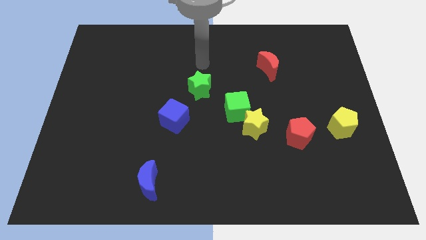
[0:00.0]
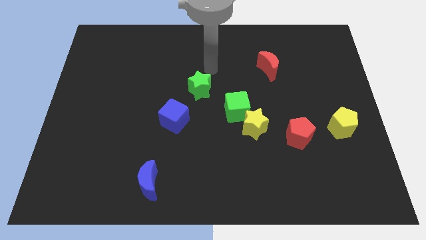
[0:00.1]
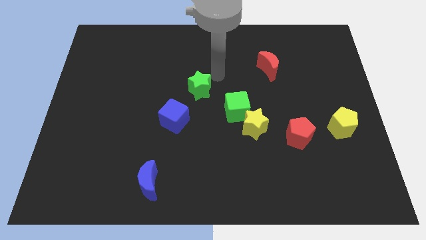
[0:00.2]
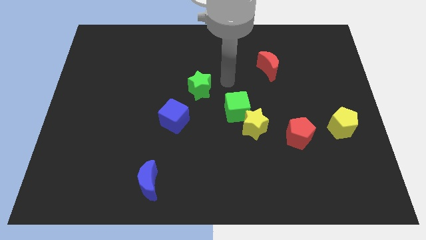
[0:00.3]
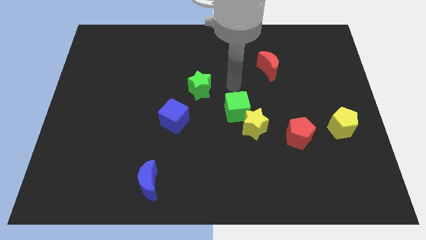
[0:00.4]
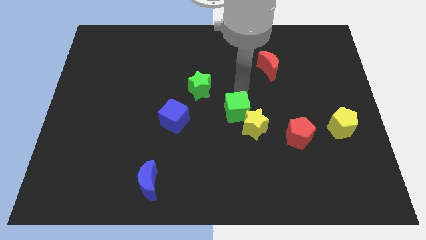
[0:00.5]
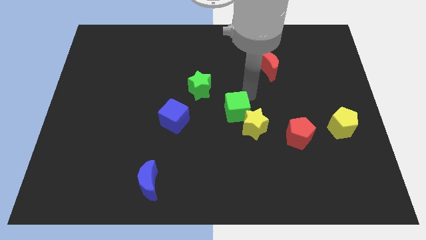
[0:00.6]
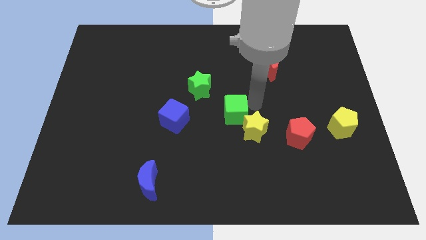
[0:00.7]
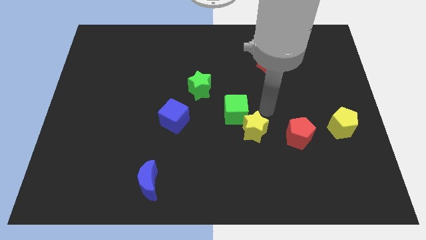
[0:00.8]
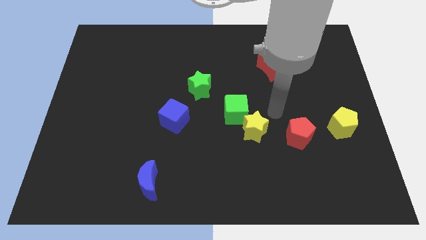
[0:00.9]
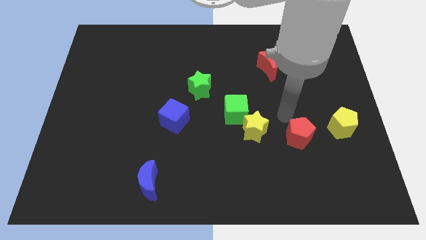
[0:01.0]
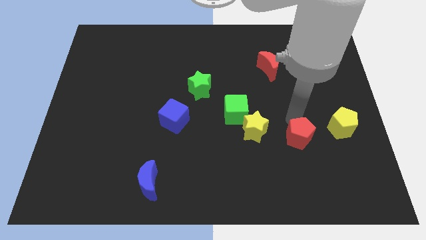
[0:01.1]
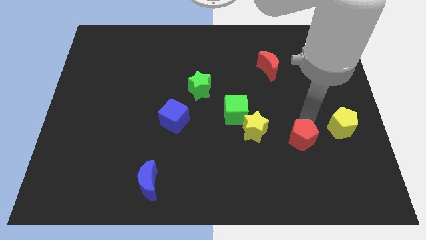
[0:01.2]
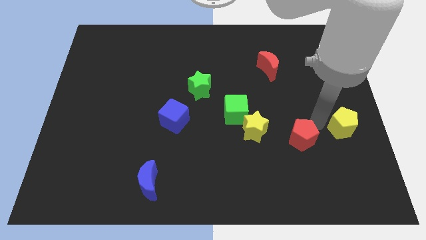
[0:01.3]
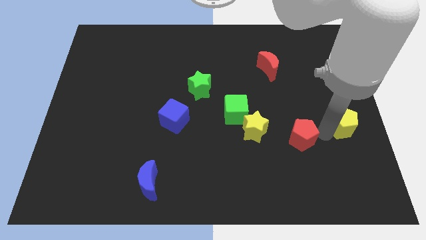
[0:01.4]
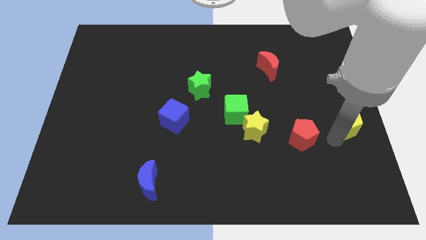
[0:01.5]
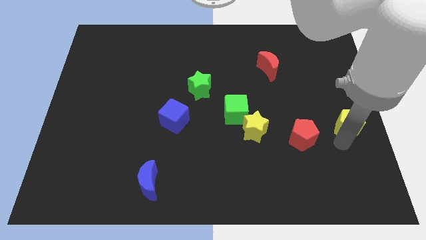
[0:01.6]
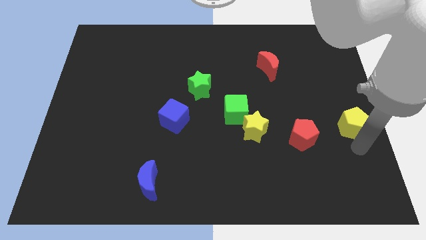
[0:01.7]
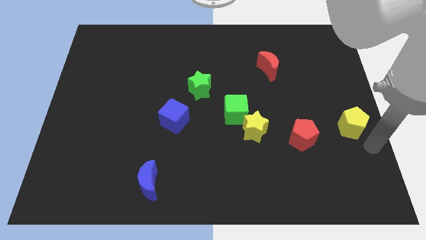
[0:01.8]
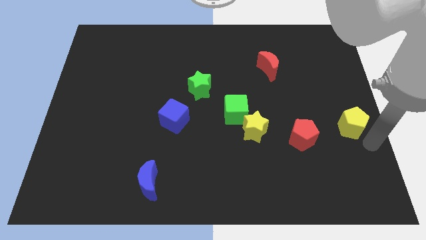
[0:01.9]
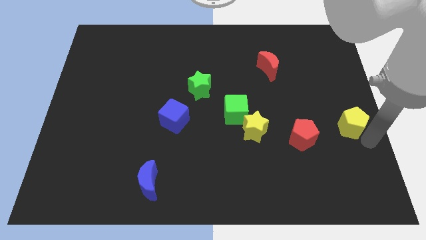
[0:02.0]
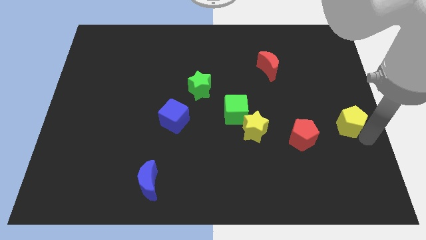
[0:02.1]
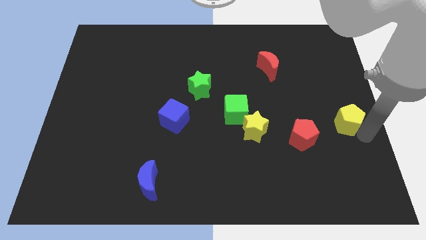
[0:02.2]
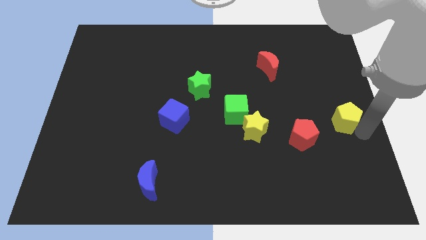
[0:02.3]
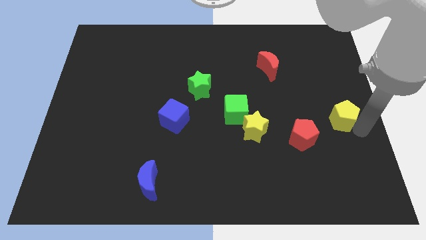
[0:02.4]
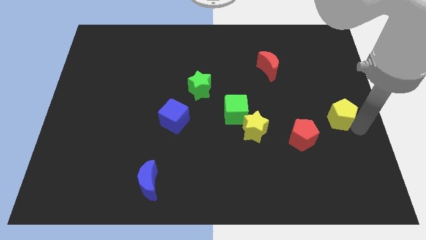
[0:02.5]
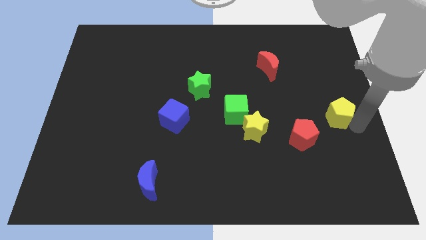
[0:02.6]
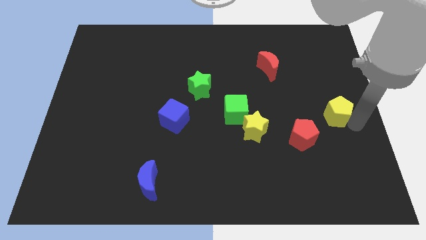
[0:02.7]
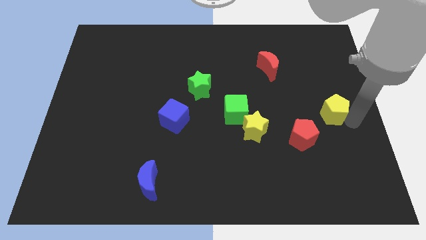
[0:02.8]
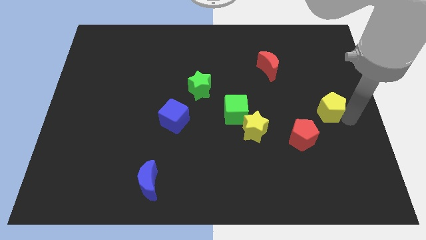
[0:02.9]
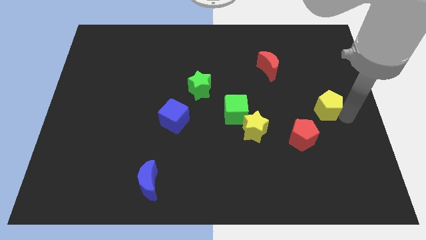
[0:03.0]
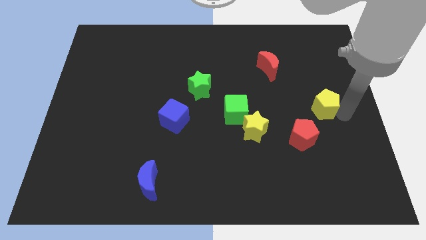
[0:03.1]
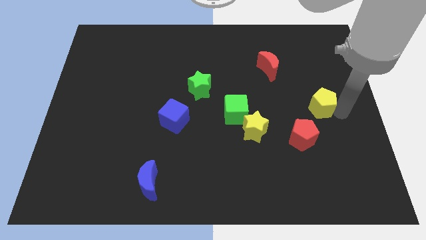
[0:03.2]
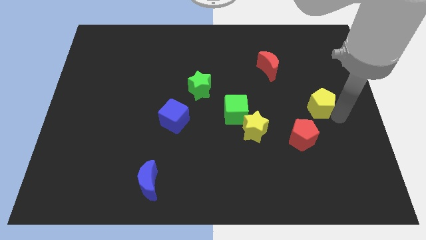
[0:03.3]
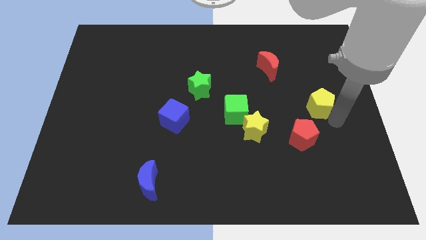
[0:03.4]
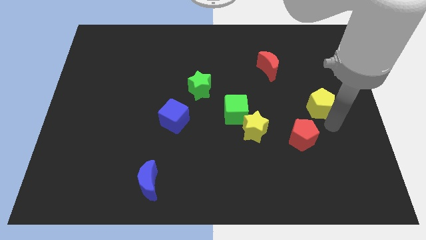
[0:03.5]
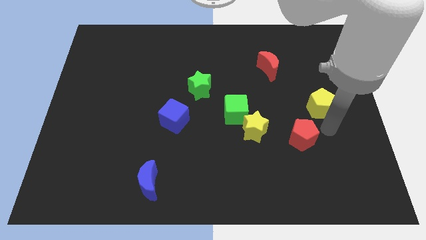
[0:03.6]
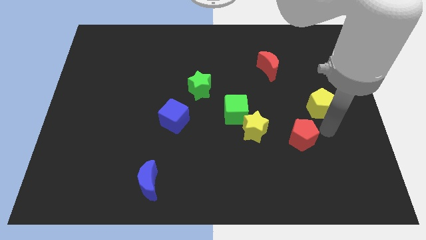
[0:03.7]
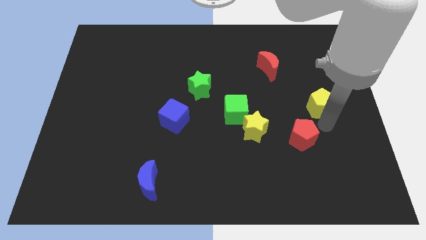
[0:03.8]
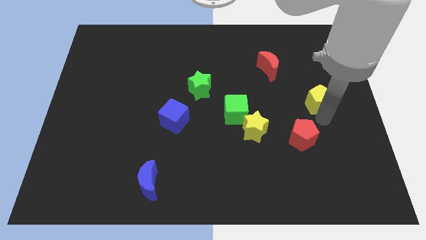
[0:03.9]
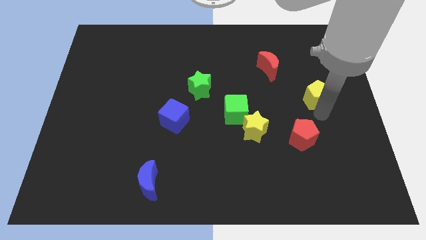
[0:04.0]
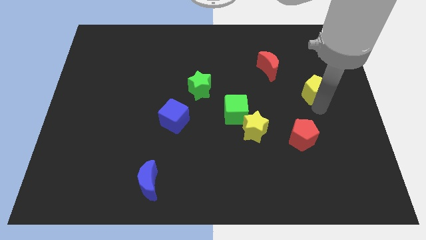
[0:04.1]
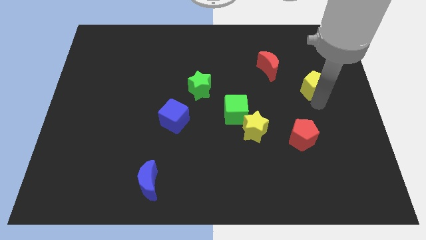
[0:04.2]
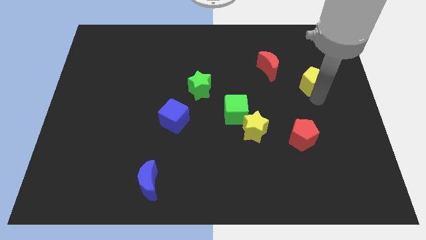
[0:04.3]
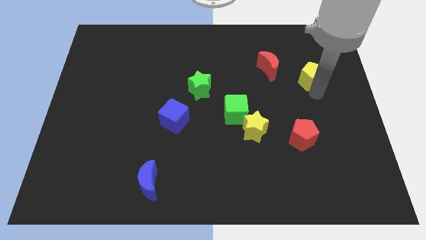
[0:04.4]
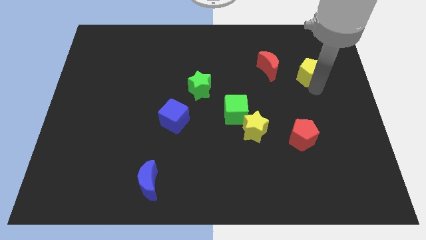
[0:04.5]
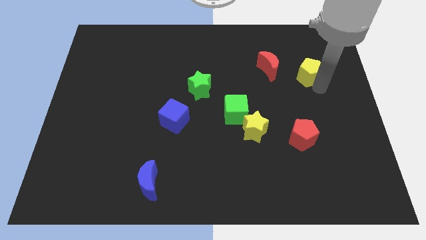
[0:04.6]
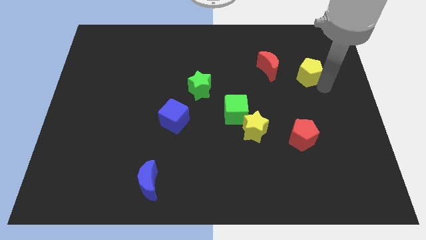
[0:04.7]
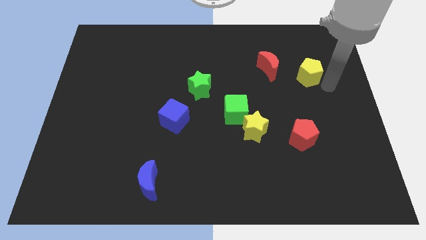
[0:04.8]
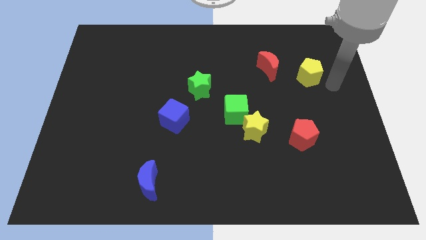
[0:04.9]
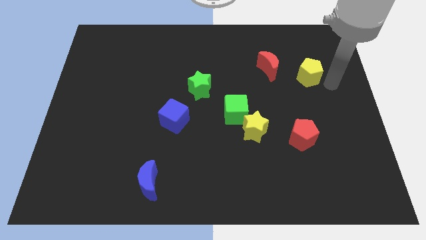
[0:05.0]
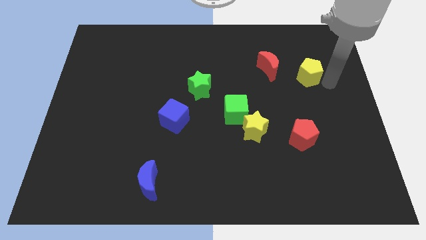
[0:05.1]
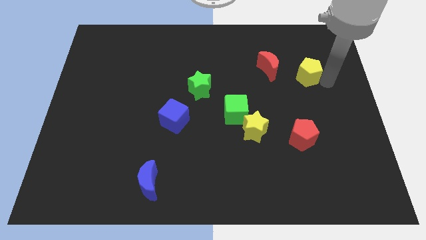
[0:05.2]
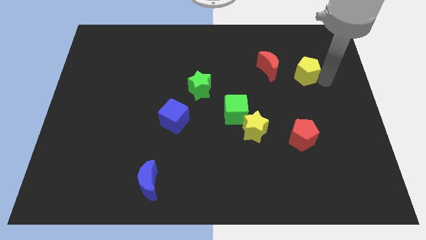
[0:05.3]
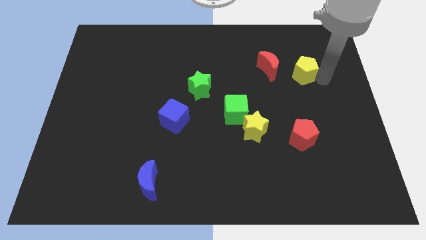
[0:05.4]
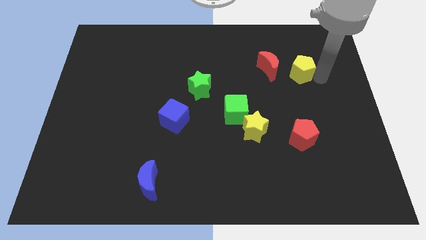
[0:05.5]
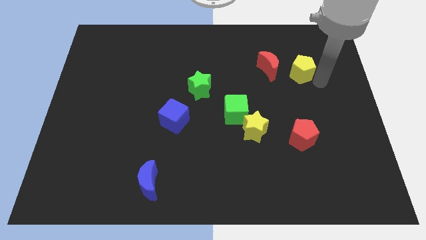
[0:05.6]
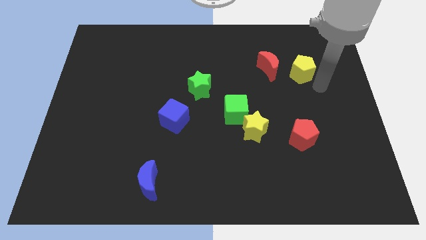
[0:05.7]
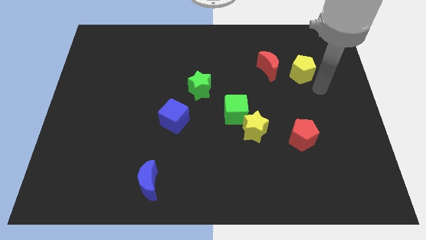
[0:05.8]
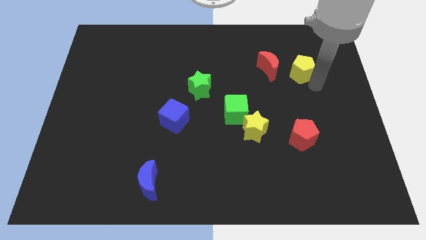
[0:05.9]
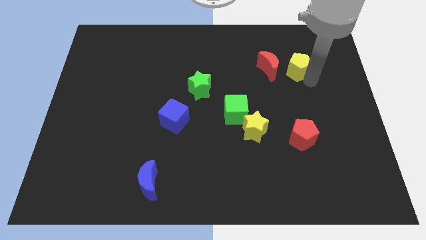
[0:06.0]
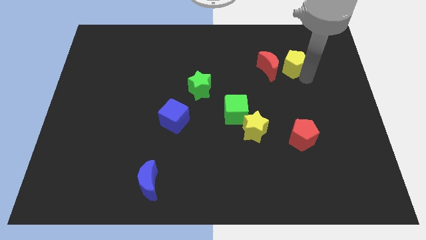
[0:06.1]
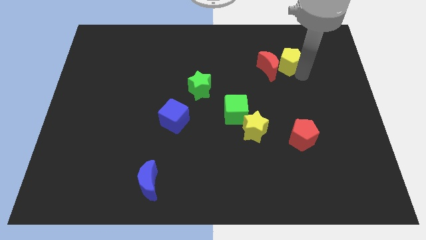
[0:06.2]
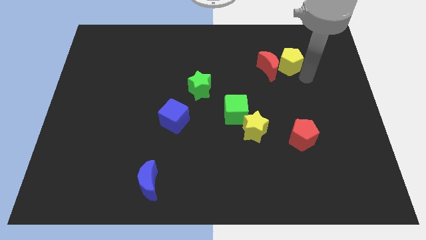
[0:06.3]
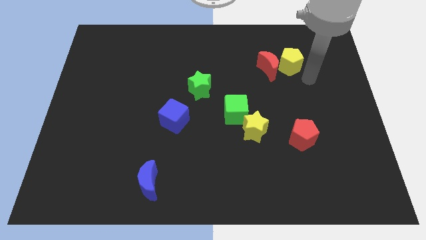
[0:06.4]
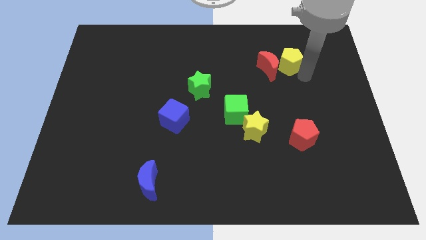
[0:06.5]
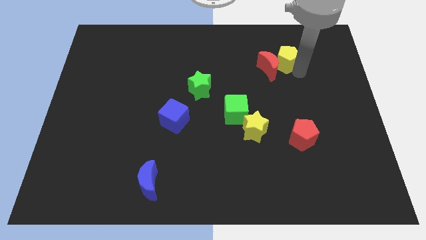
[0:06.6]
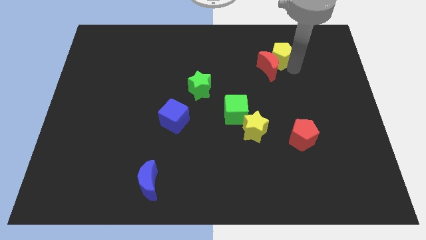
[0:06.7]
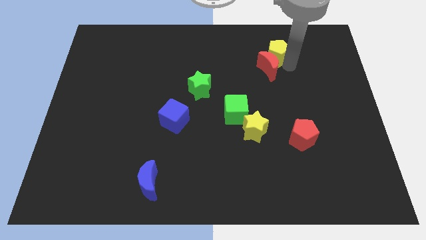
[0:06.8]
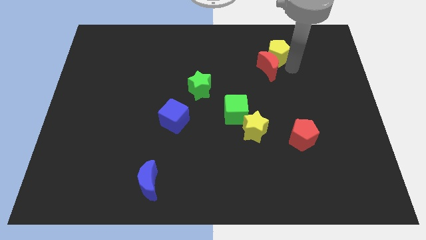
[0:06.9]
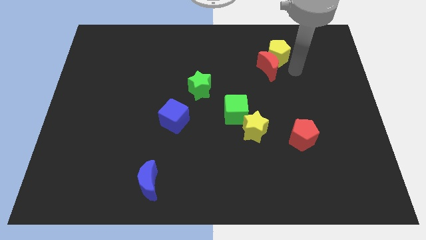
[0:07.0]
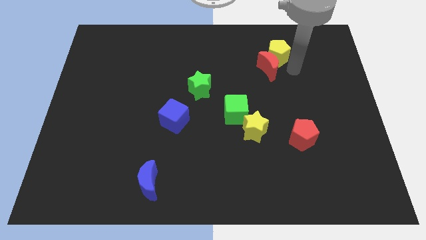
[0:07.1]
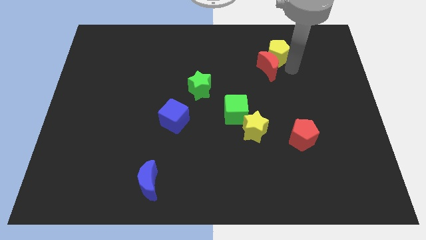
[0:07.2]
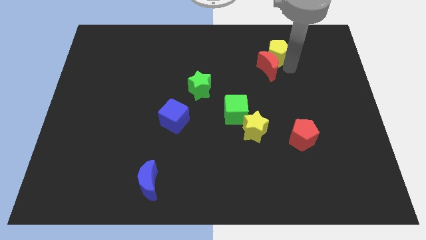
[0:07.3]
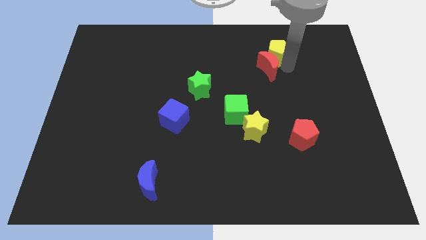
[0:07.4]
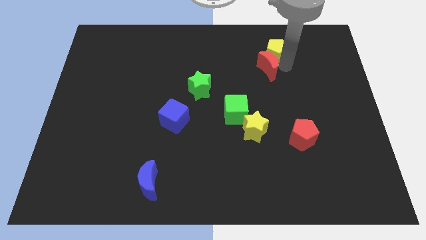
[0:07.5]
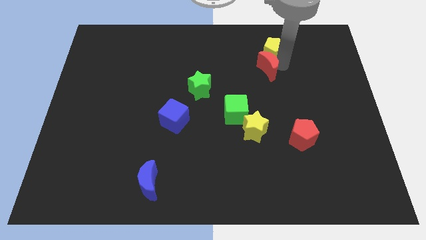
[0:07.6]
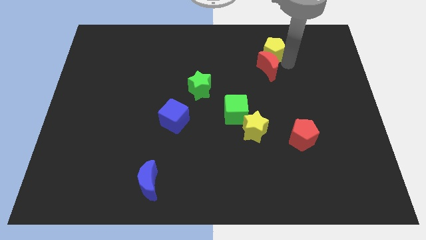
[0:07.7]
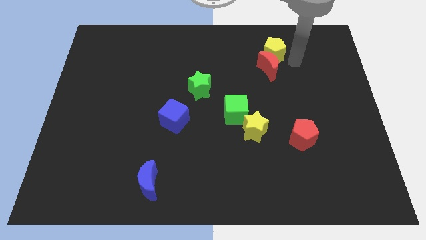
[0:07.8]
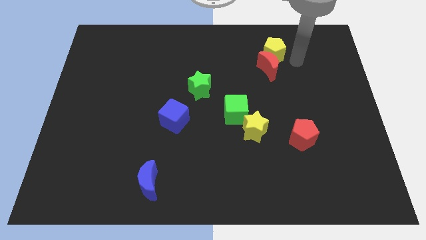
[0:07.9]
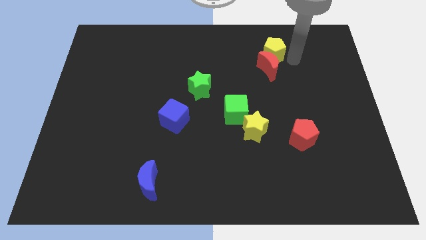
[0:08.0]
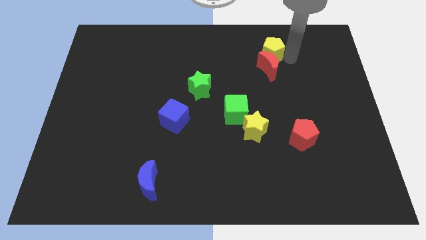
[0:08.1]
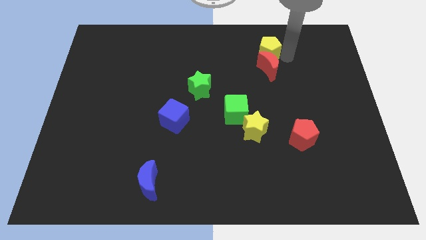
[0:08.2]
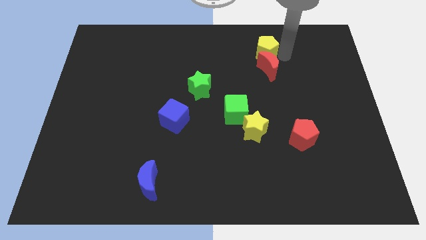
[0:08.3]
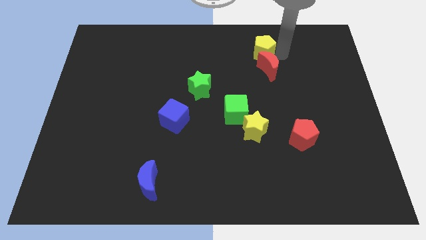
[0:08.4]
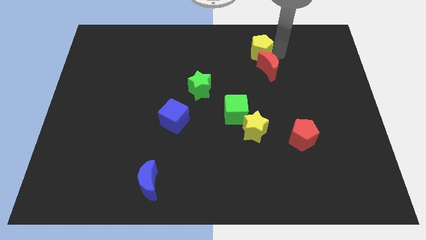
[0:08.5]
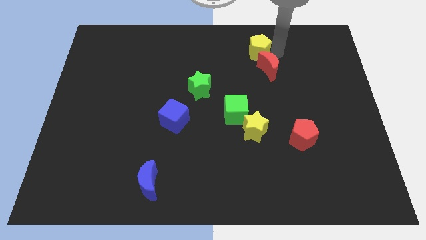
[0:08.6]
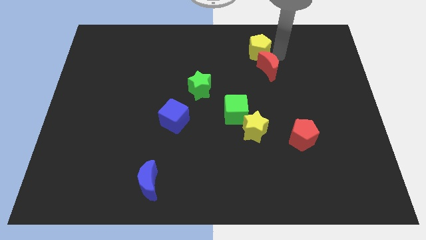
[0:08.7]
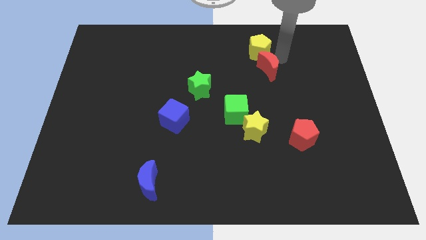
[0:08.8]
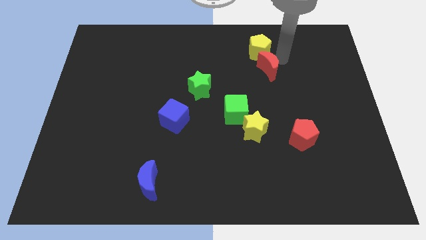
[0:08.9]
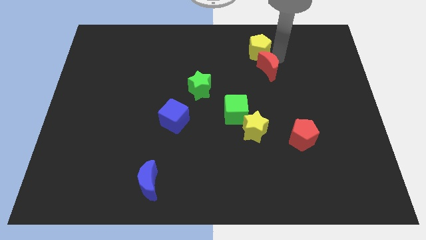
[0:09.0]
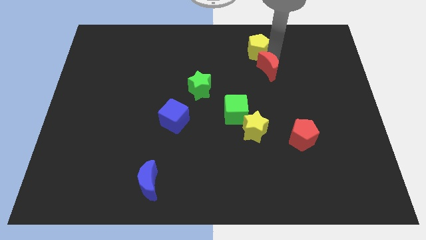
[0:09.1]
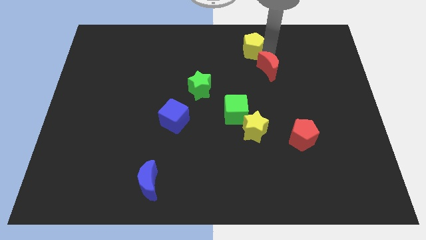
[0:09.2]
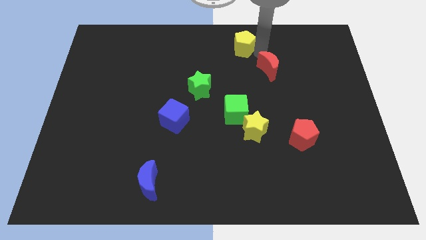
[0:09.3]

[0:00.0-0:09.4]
slide the yellow pentagon to the top side
